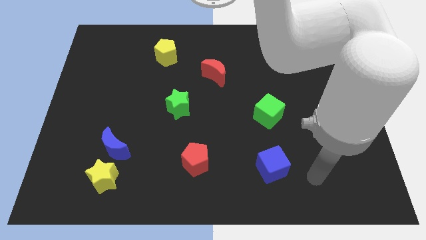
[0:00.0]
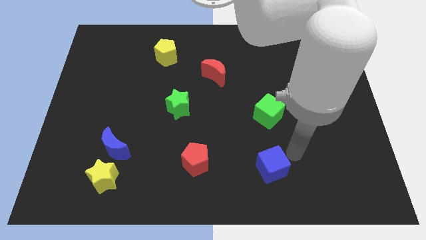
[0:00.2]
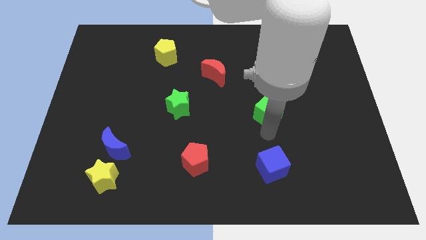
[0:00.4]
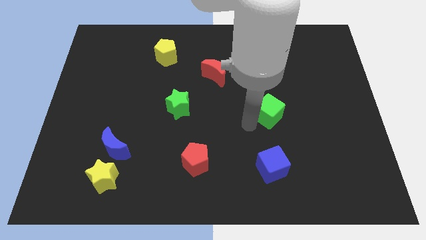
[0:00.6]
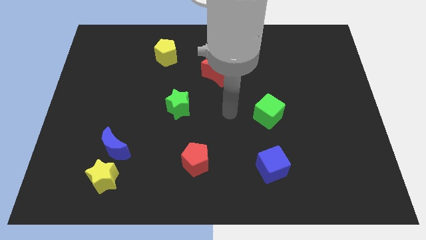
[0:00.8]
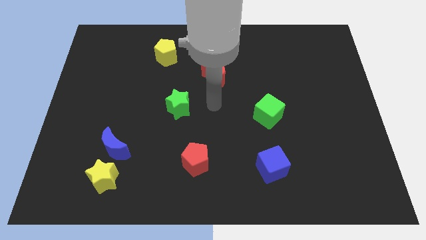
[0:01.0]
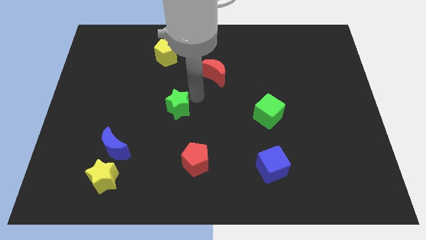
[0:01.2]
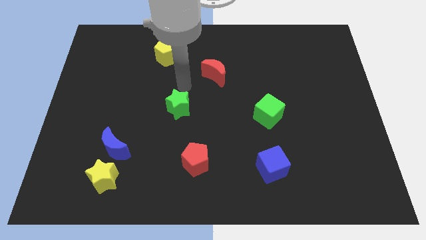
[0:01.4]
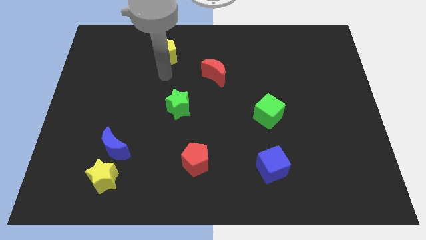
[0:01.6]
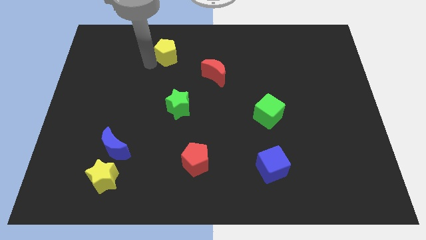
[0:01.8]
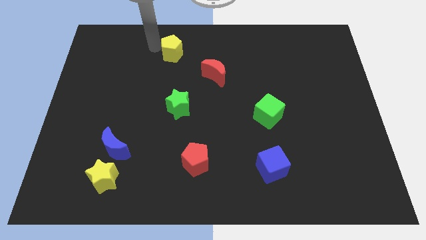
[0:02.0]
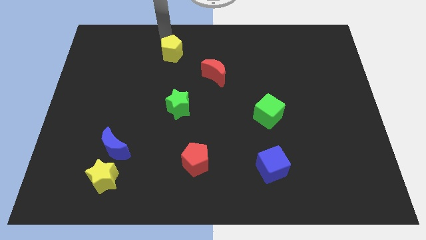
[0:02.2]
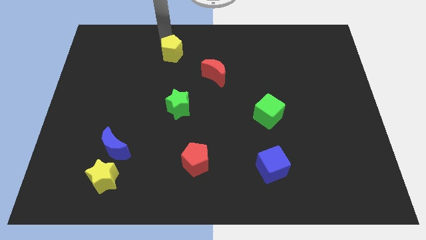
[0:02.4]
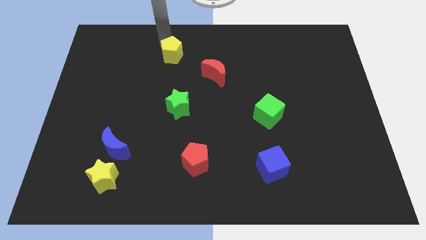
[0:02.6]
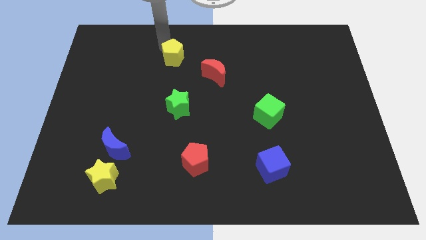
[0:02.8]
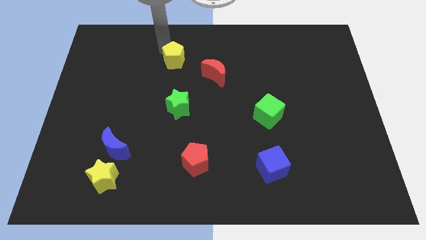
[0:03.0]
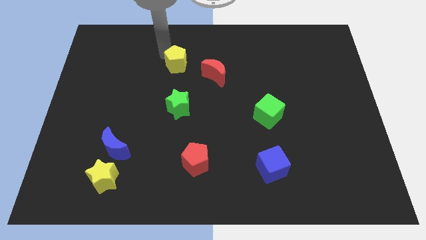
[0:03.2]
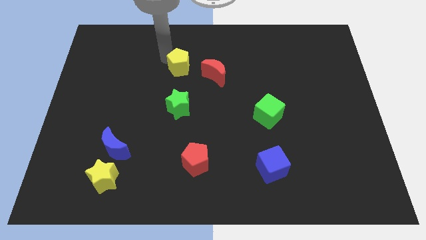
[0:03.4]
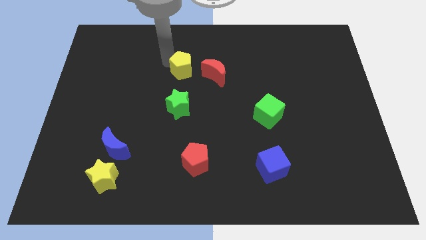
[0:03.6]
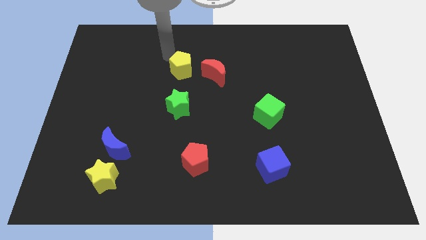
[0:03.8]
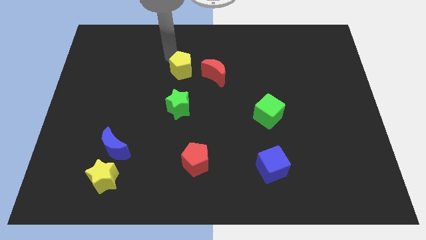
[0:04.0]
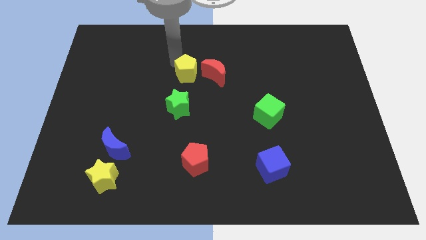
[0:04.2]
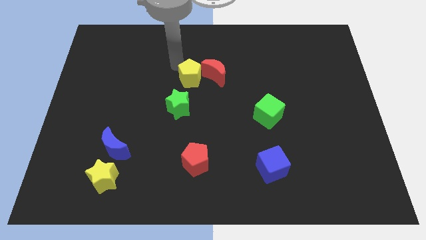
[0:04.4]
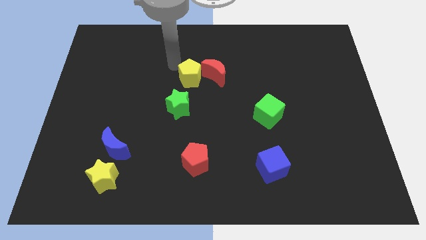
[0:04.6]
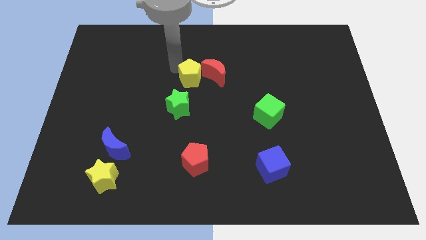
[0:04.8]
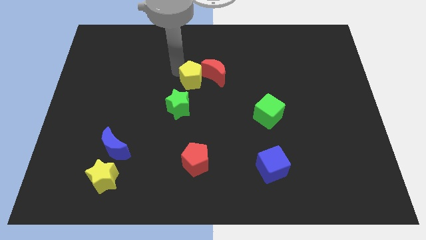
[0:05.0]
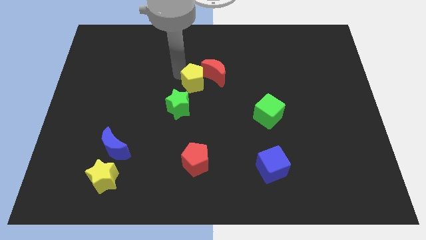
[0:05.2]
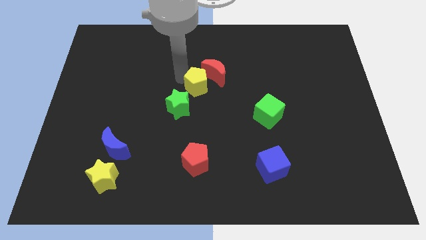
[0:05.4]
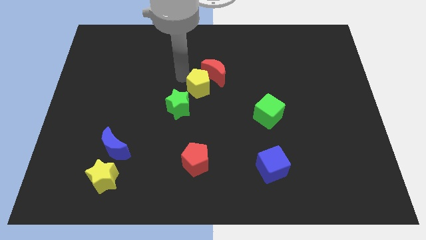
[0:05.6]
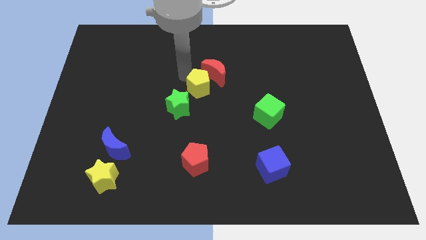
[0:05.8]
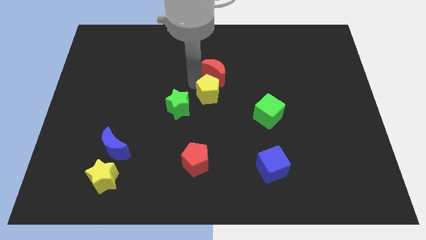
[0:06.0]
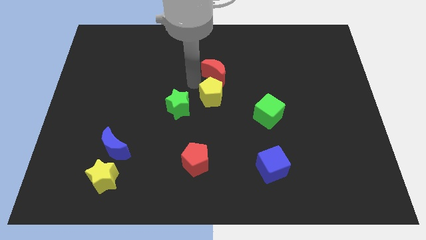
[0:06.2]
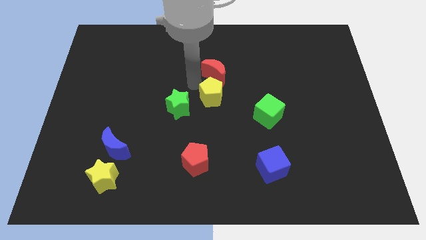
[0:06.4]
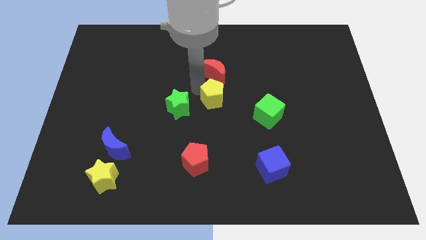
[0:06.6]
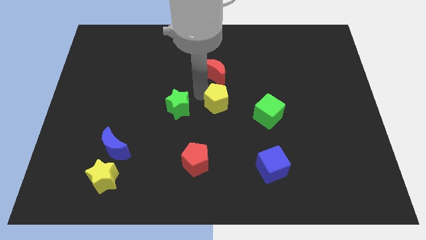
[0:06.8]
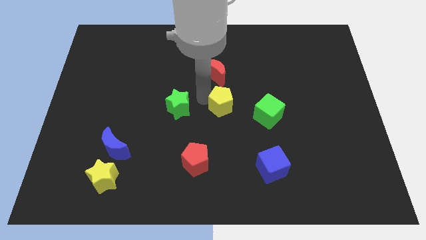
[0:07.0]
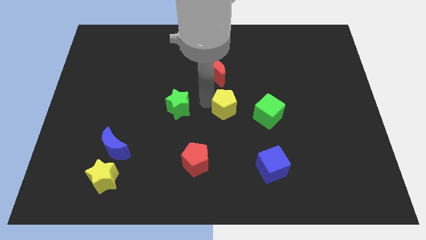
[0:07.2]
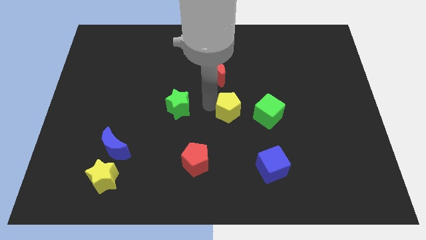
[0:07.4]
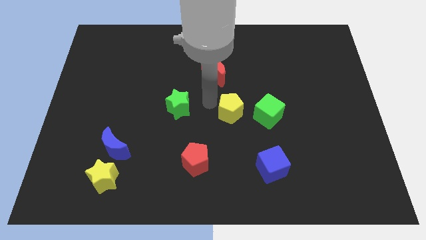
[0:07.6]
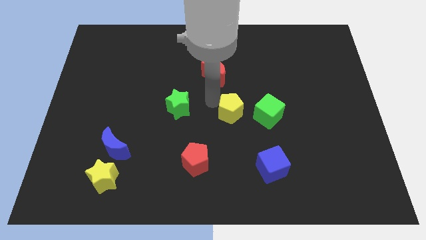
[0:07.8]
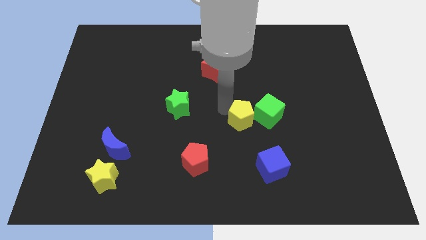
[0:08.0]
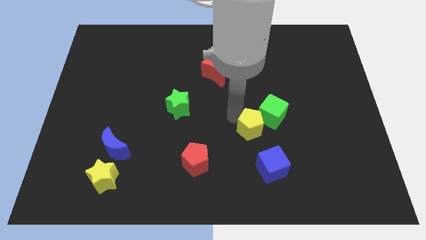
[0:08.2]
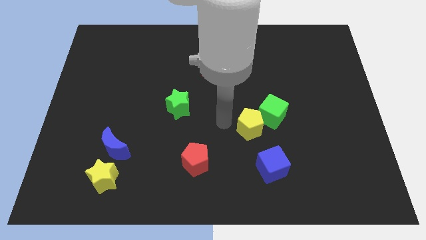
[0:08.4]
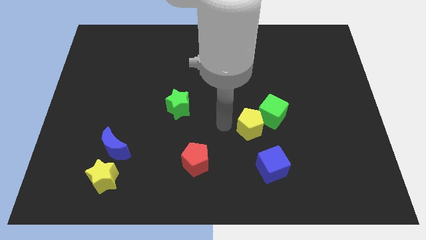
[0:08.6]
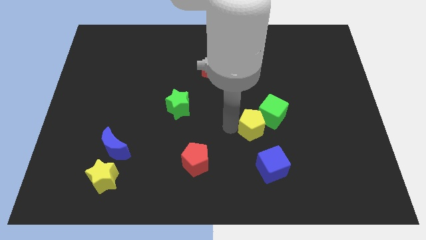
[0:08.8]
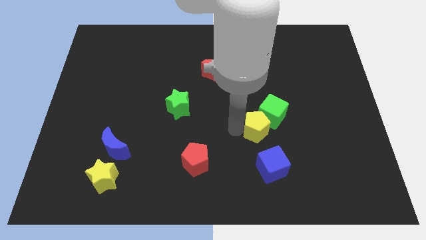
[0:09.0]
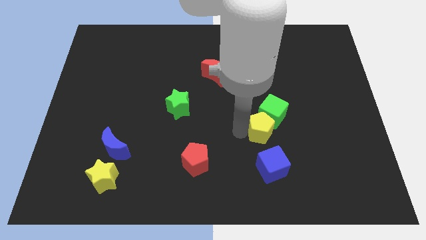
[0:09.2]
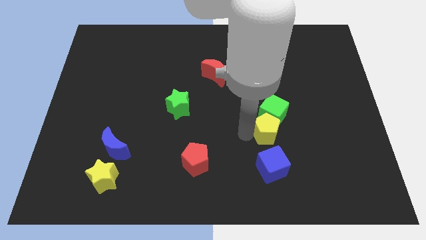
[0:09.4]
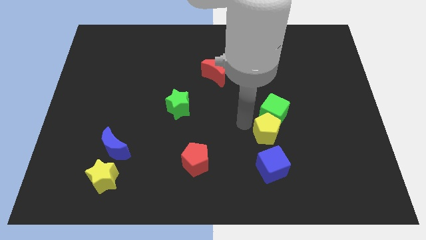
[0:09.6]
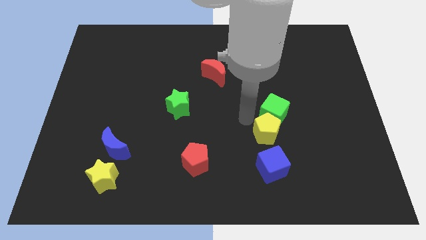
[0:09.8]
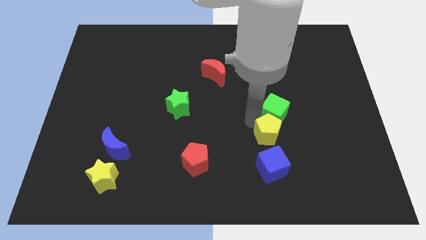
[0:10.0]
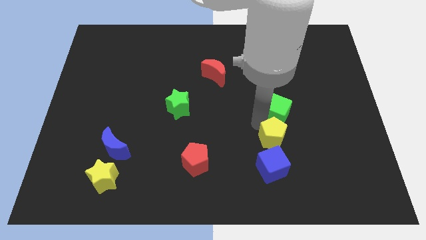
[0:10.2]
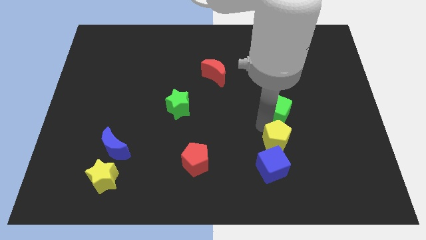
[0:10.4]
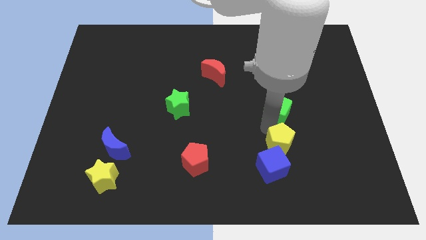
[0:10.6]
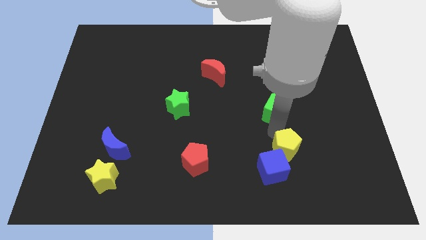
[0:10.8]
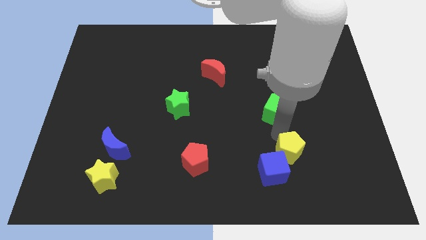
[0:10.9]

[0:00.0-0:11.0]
slide the yellow pentagon just right of the blue cube

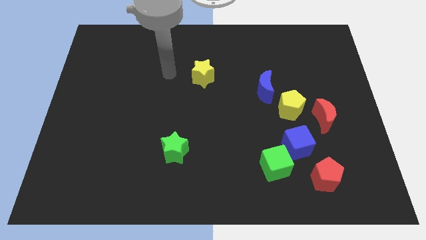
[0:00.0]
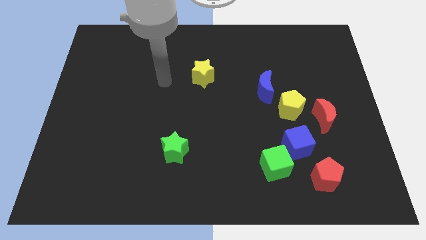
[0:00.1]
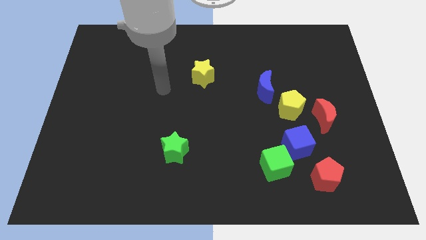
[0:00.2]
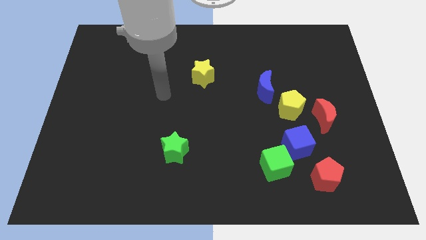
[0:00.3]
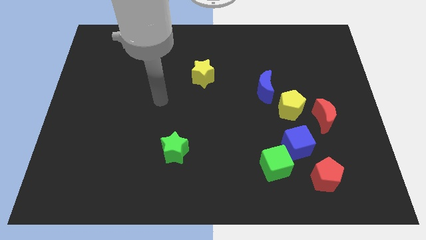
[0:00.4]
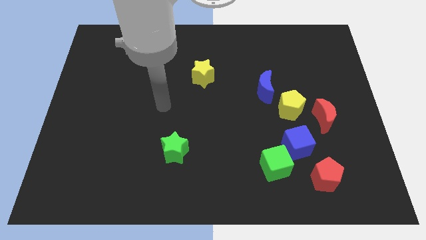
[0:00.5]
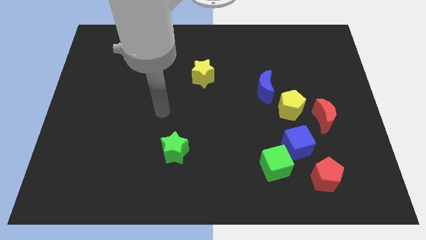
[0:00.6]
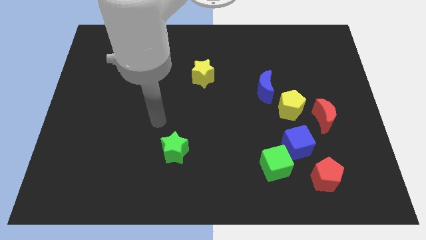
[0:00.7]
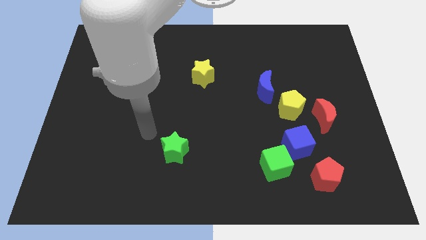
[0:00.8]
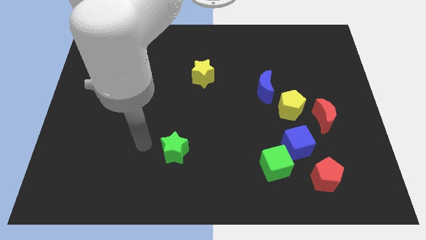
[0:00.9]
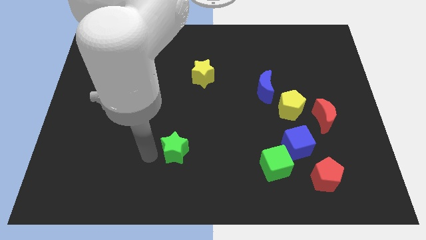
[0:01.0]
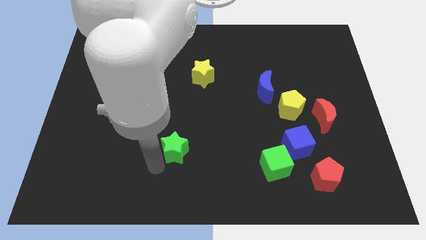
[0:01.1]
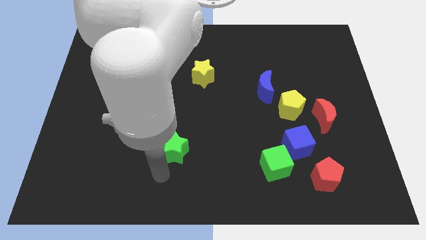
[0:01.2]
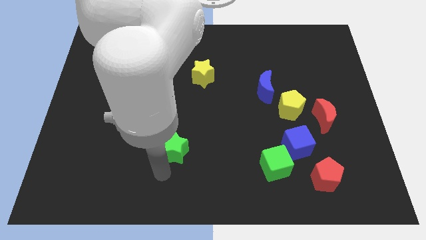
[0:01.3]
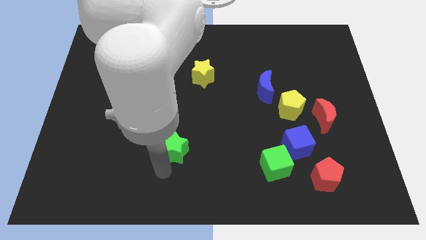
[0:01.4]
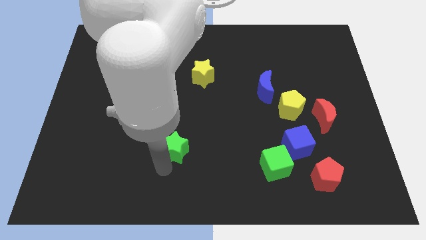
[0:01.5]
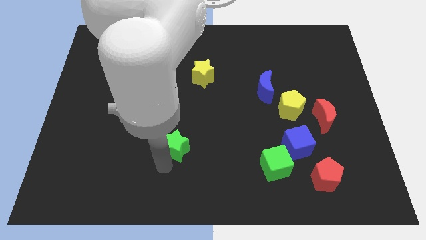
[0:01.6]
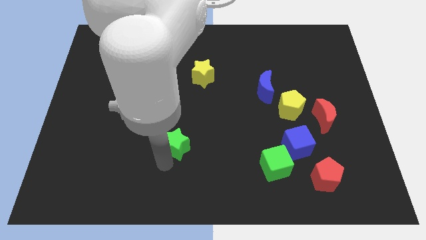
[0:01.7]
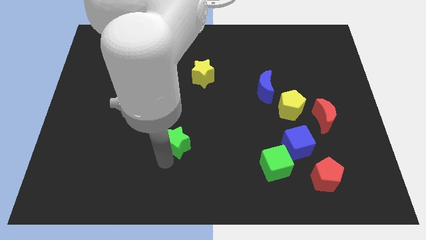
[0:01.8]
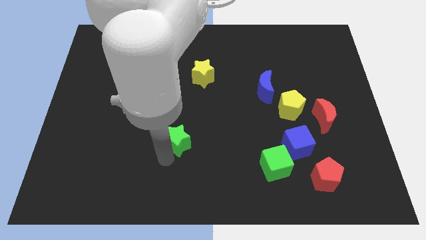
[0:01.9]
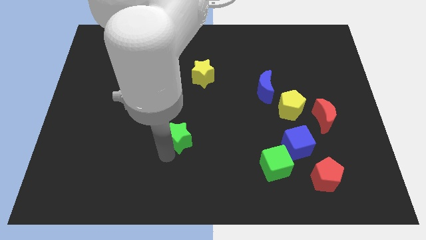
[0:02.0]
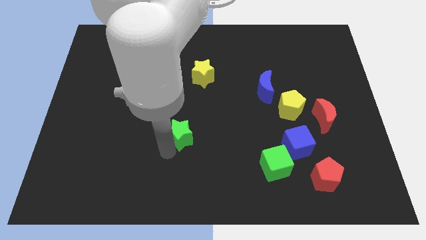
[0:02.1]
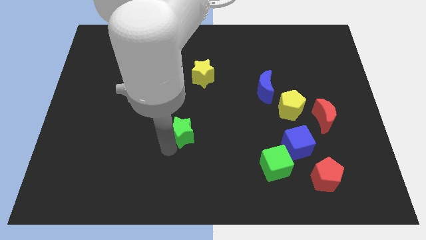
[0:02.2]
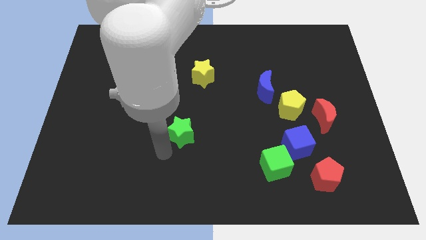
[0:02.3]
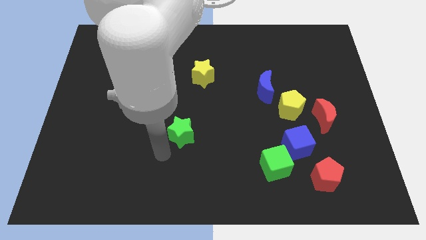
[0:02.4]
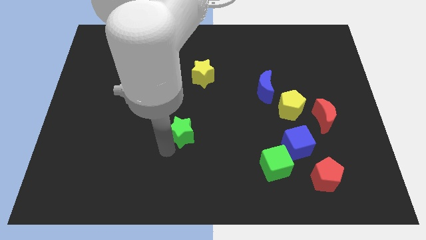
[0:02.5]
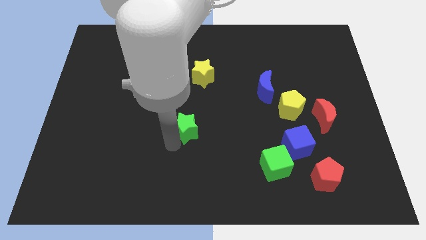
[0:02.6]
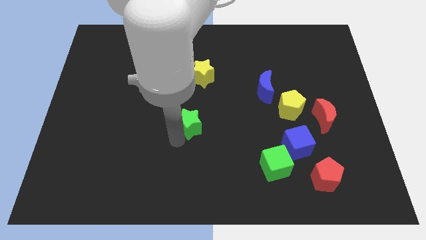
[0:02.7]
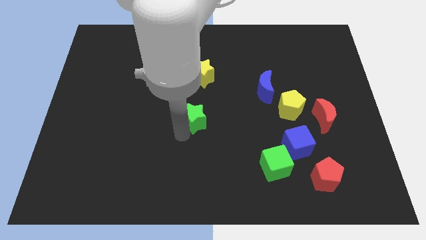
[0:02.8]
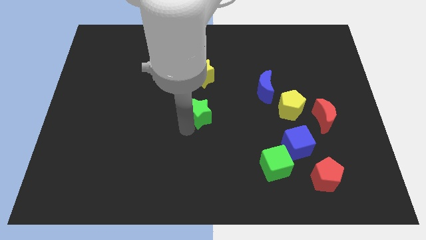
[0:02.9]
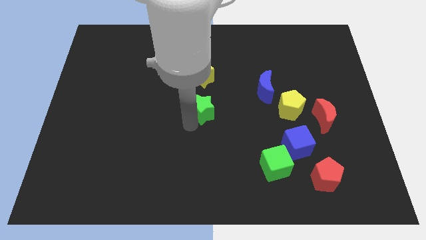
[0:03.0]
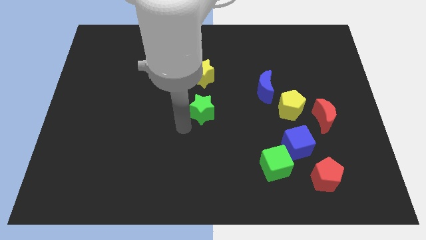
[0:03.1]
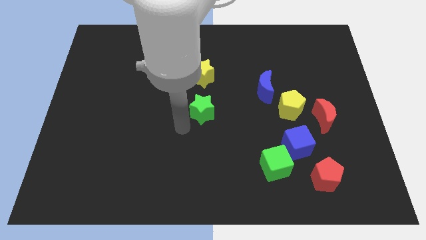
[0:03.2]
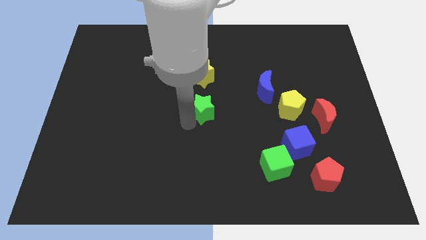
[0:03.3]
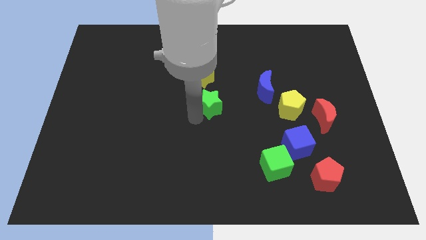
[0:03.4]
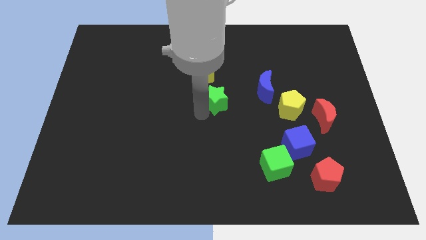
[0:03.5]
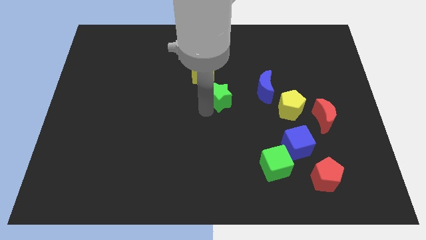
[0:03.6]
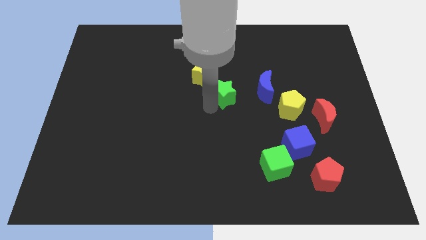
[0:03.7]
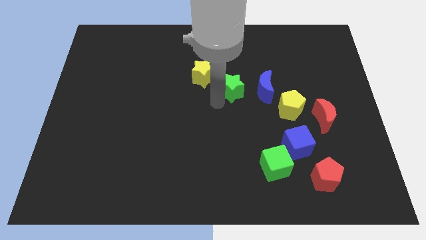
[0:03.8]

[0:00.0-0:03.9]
move the green star to the right of the yellow star
